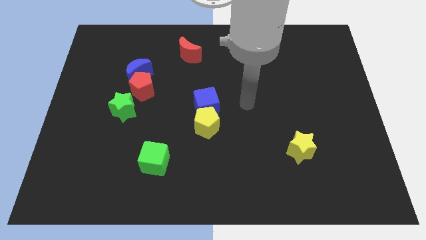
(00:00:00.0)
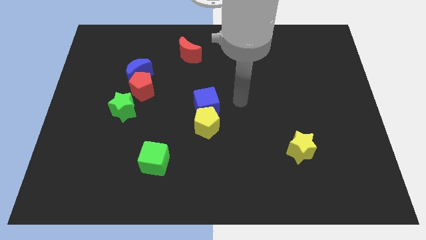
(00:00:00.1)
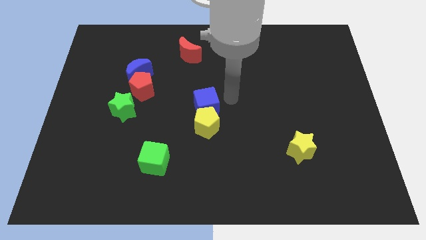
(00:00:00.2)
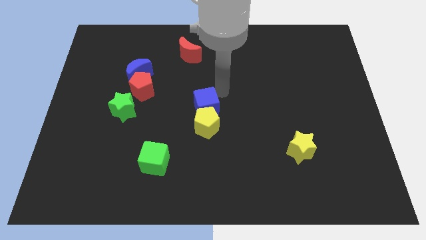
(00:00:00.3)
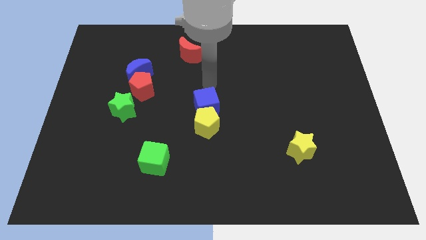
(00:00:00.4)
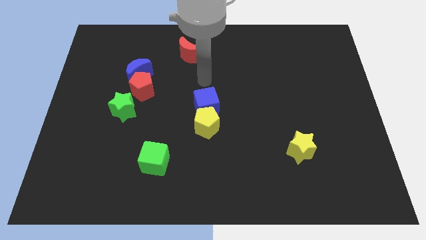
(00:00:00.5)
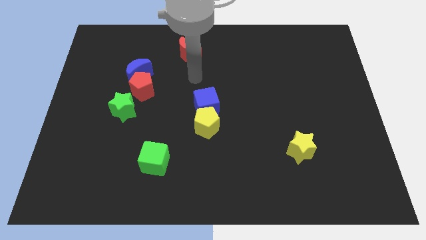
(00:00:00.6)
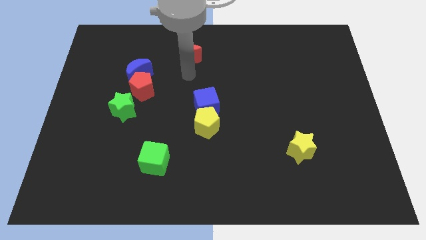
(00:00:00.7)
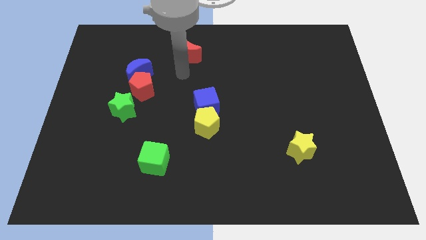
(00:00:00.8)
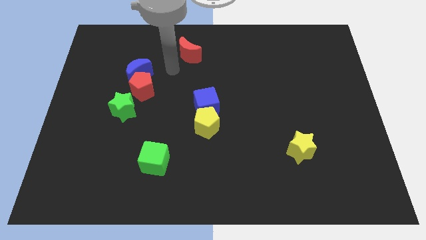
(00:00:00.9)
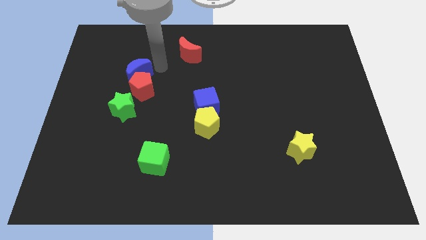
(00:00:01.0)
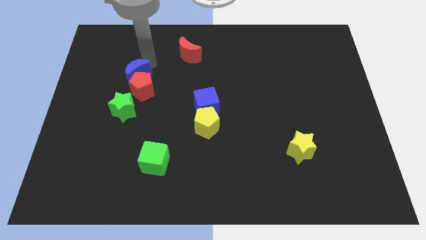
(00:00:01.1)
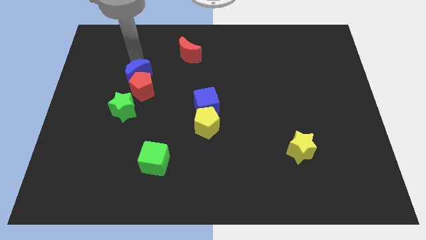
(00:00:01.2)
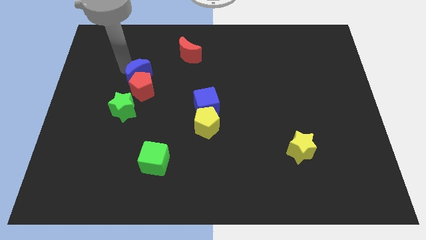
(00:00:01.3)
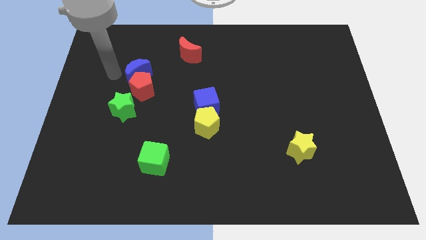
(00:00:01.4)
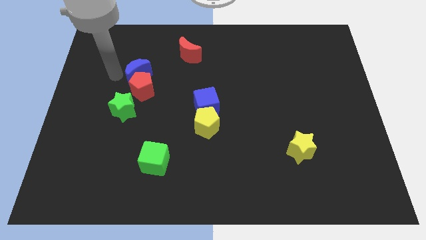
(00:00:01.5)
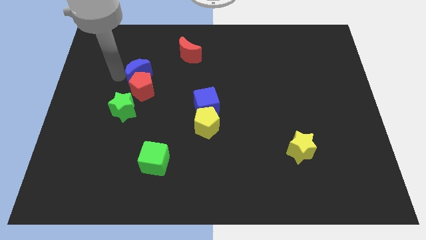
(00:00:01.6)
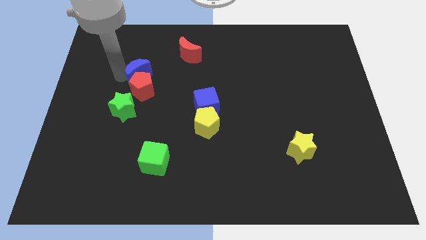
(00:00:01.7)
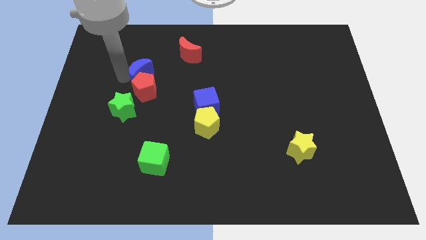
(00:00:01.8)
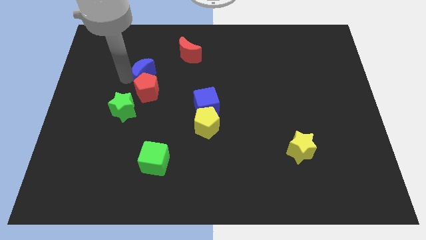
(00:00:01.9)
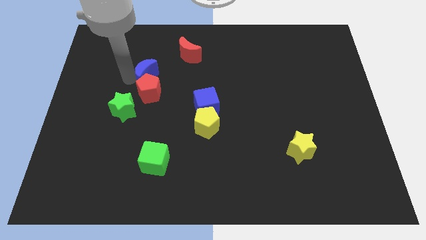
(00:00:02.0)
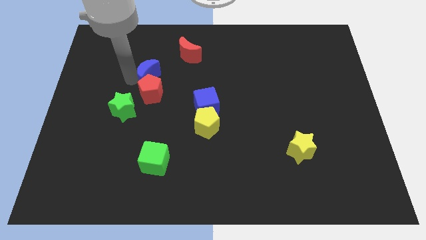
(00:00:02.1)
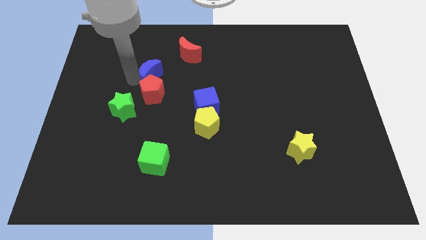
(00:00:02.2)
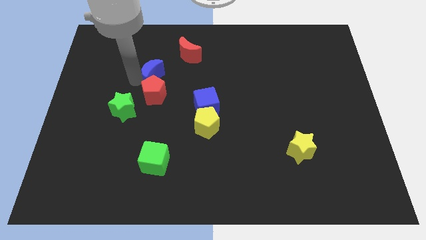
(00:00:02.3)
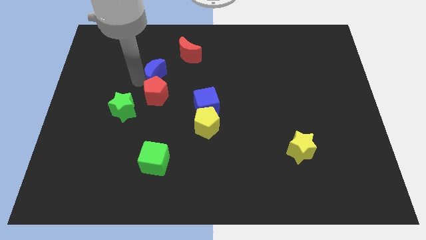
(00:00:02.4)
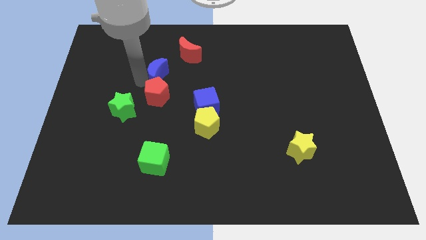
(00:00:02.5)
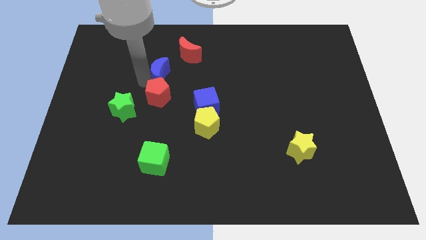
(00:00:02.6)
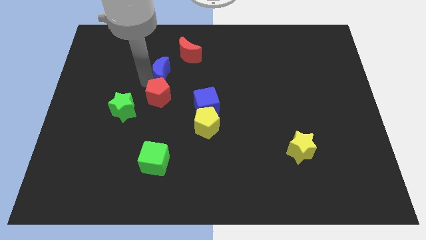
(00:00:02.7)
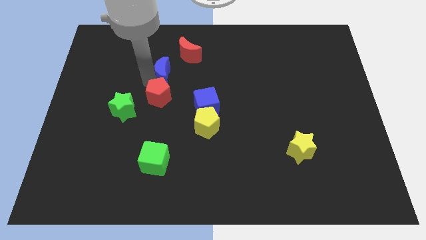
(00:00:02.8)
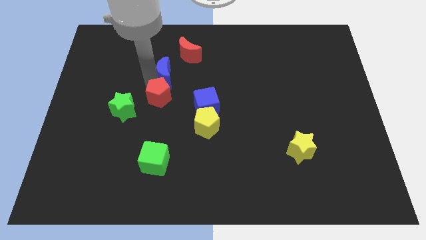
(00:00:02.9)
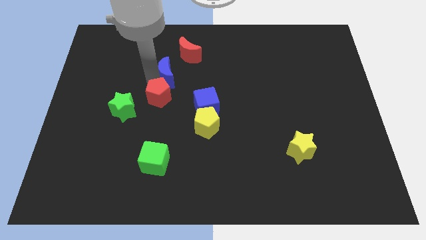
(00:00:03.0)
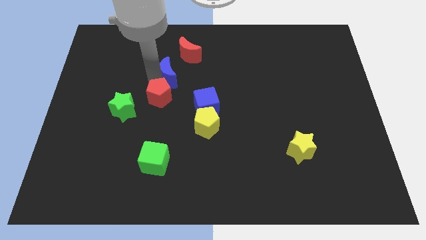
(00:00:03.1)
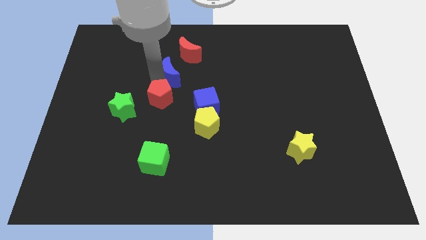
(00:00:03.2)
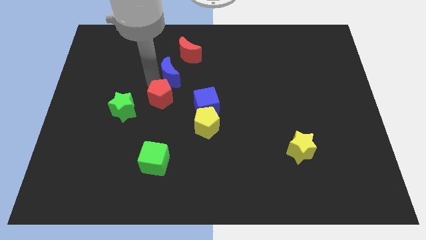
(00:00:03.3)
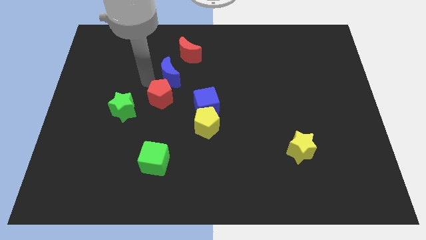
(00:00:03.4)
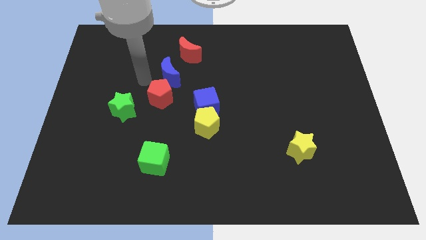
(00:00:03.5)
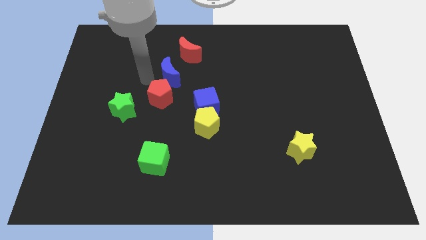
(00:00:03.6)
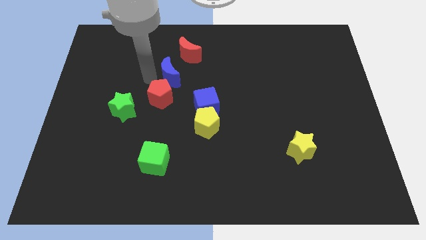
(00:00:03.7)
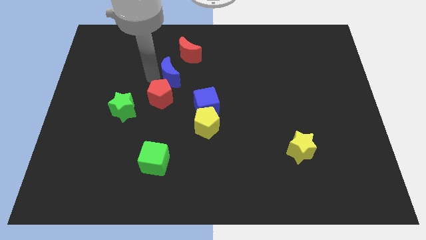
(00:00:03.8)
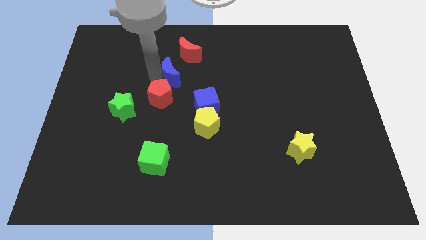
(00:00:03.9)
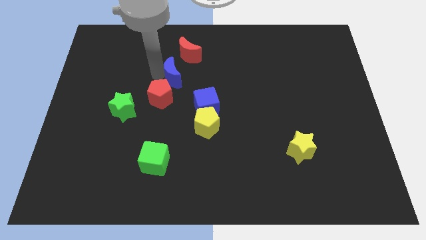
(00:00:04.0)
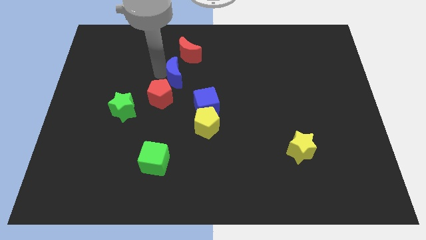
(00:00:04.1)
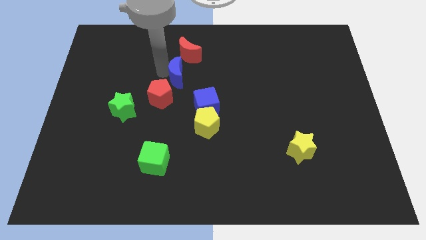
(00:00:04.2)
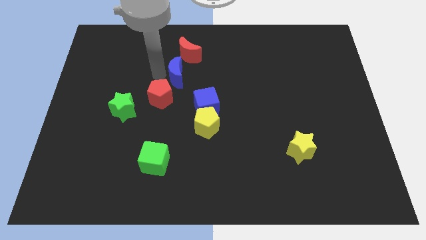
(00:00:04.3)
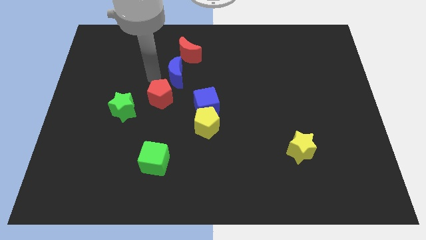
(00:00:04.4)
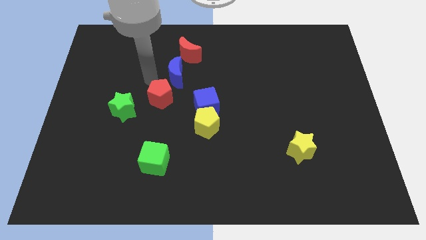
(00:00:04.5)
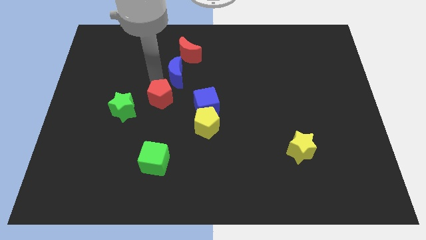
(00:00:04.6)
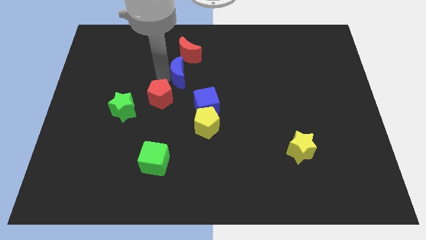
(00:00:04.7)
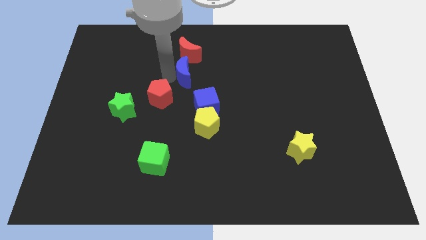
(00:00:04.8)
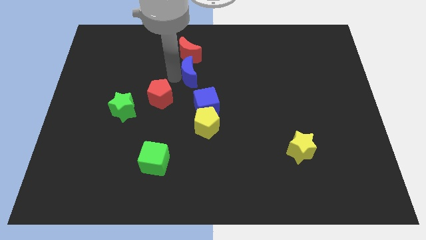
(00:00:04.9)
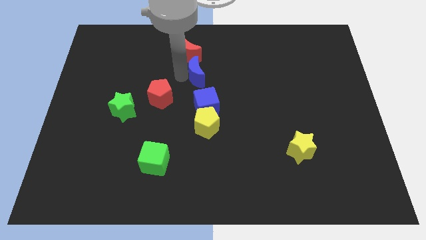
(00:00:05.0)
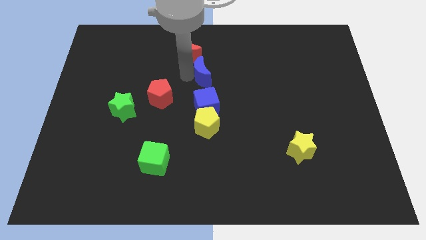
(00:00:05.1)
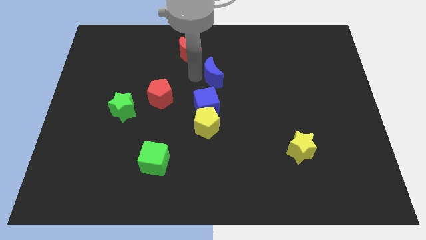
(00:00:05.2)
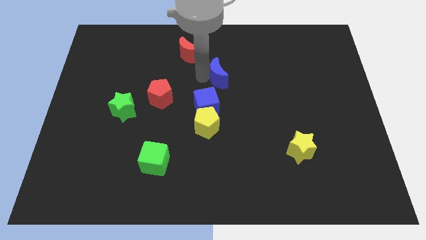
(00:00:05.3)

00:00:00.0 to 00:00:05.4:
slide the blue moon to the right

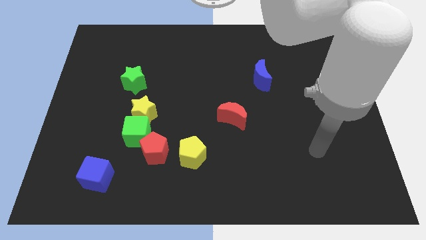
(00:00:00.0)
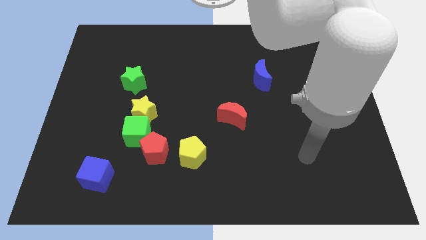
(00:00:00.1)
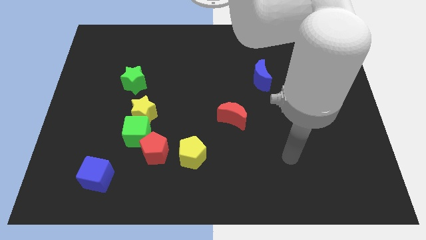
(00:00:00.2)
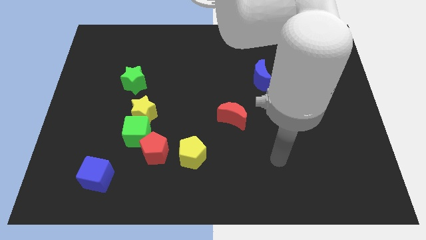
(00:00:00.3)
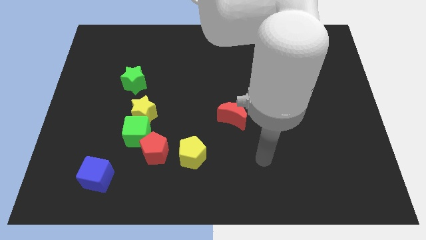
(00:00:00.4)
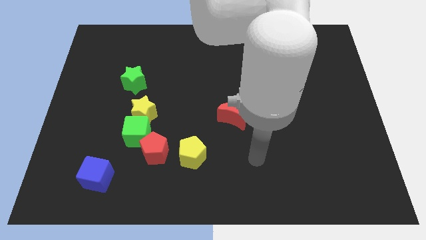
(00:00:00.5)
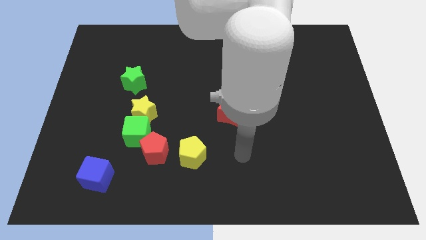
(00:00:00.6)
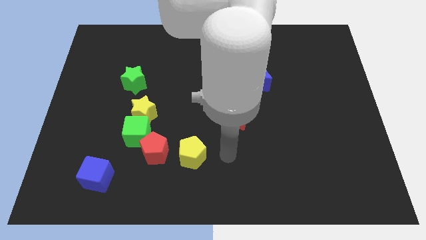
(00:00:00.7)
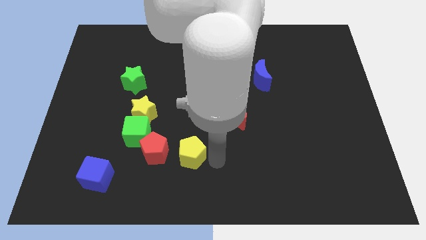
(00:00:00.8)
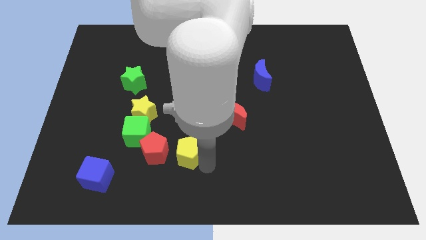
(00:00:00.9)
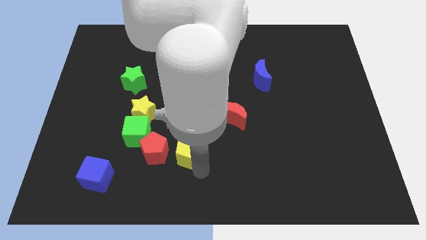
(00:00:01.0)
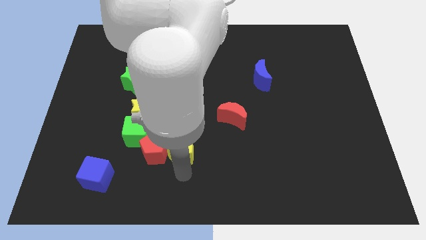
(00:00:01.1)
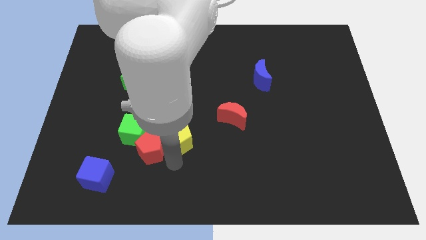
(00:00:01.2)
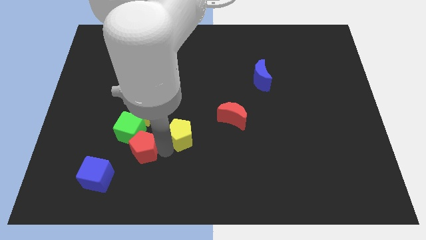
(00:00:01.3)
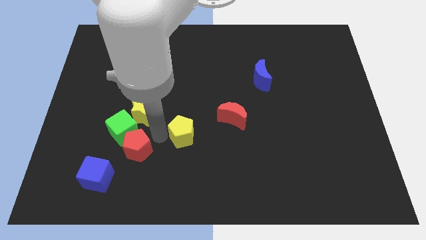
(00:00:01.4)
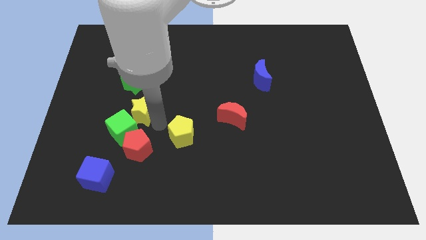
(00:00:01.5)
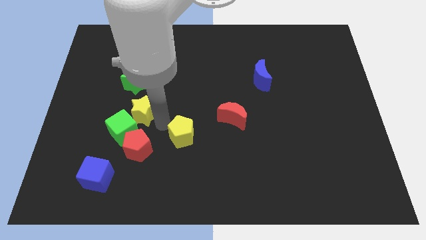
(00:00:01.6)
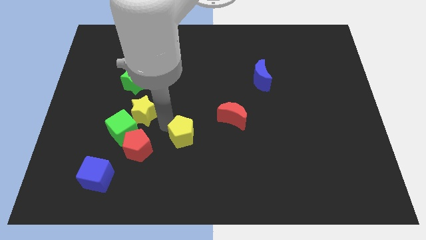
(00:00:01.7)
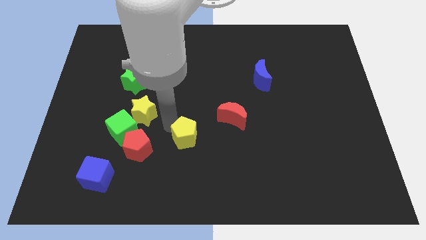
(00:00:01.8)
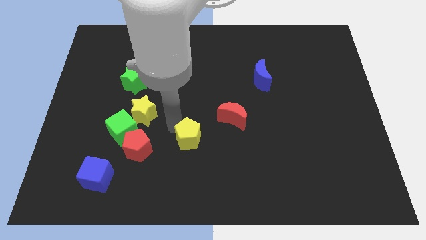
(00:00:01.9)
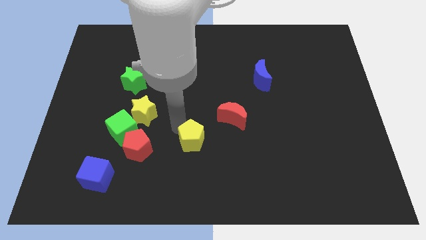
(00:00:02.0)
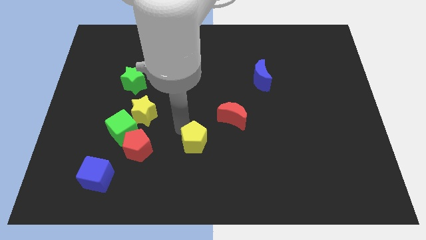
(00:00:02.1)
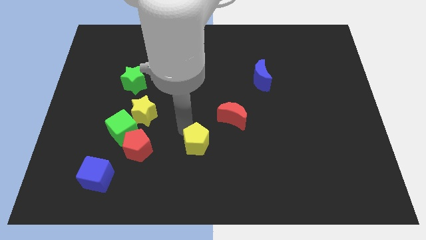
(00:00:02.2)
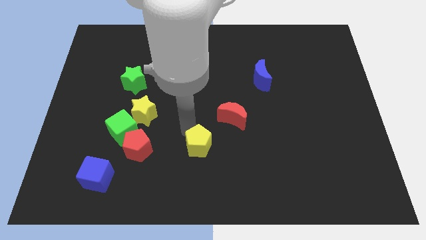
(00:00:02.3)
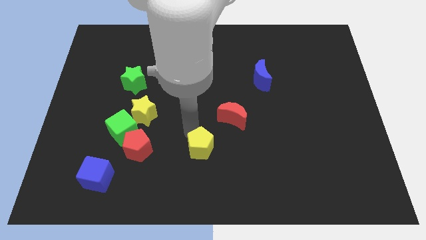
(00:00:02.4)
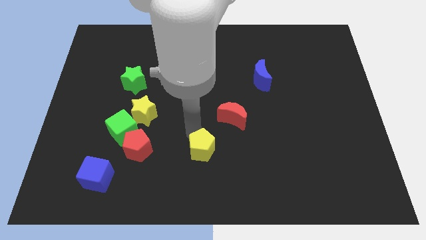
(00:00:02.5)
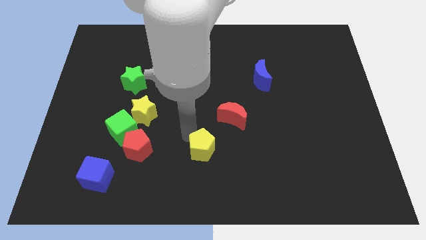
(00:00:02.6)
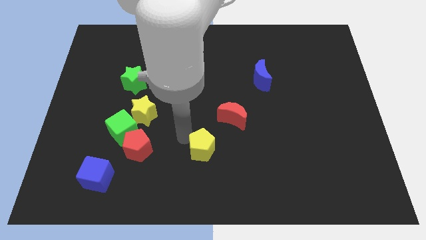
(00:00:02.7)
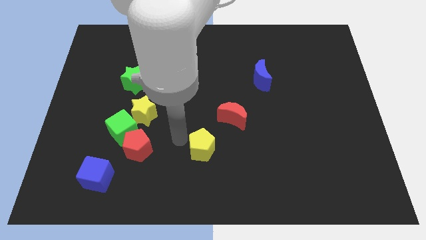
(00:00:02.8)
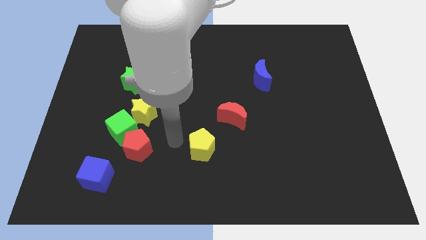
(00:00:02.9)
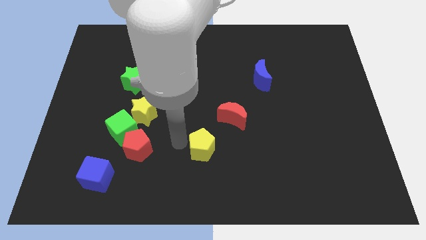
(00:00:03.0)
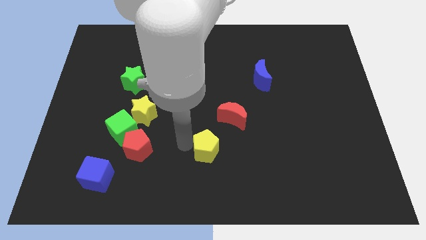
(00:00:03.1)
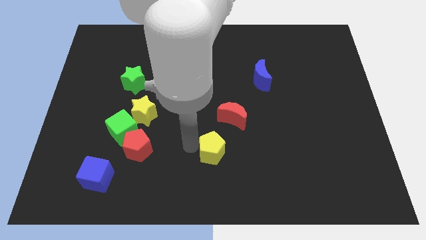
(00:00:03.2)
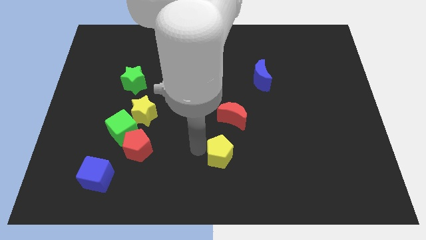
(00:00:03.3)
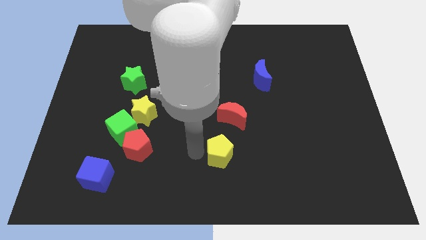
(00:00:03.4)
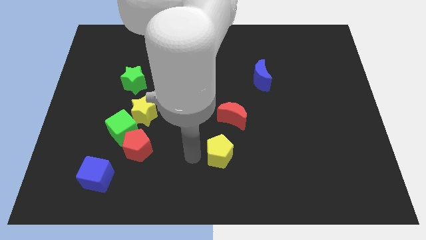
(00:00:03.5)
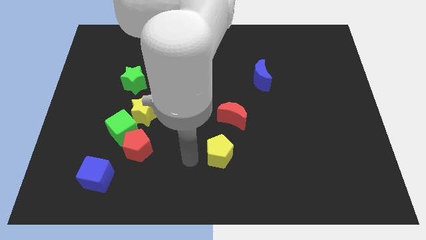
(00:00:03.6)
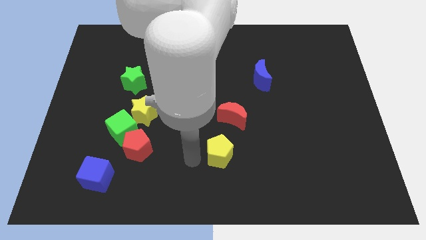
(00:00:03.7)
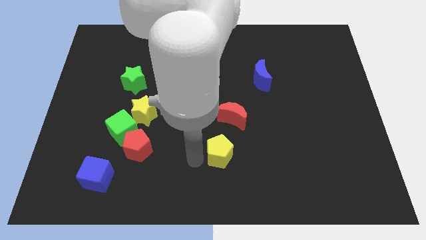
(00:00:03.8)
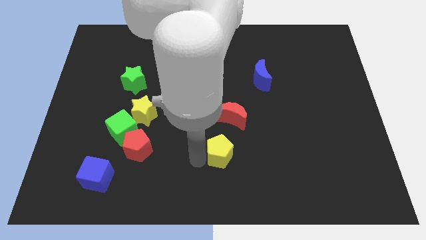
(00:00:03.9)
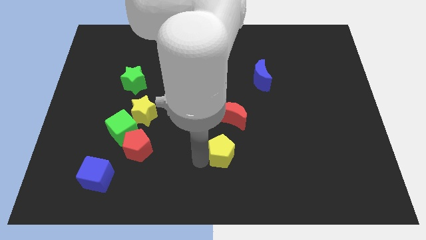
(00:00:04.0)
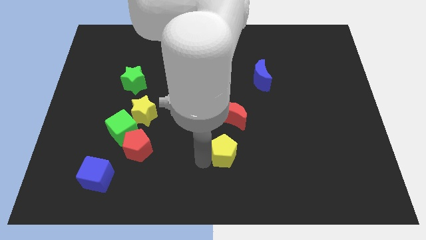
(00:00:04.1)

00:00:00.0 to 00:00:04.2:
push the yellow pentagon right a little
